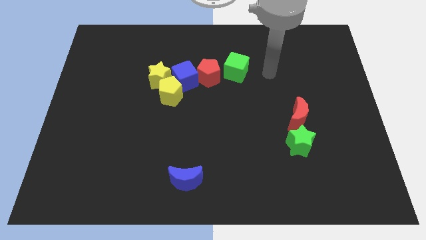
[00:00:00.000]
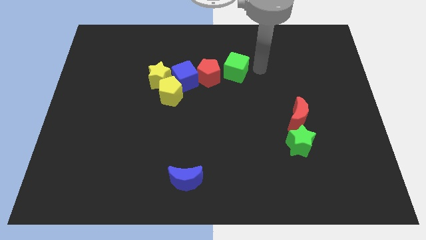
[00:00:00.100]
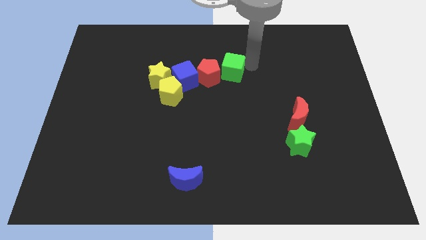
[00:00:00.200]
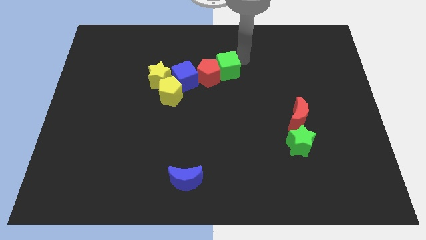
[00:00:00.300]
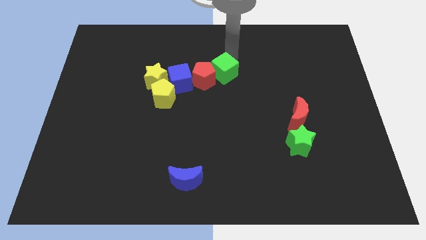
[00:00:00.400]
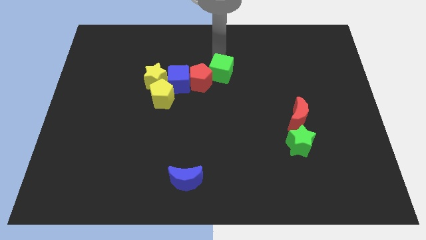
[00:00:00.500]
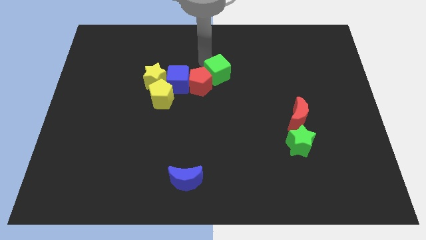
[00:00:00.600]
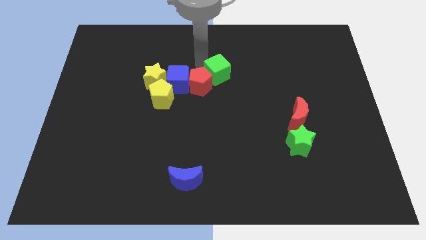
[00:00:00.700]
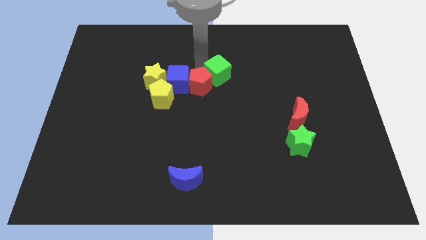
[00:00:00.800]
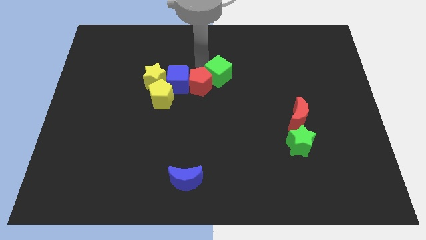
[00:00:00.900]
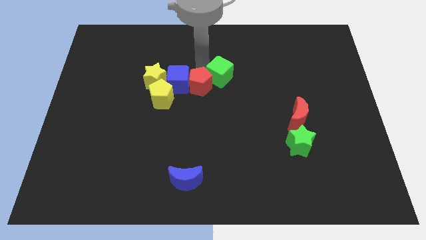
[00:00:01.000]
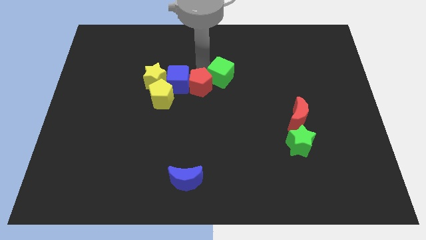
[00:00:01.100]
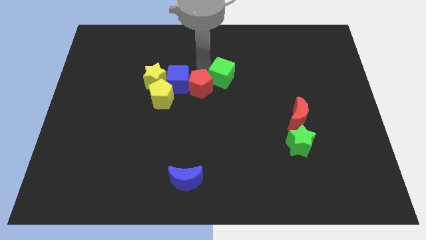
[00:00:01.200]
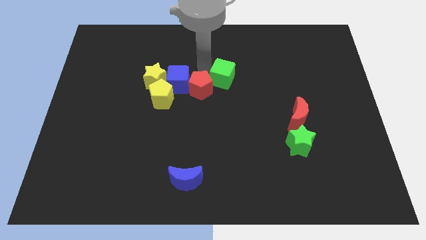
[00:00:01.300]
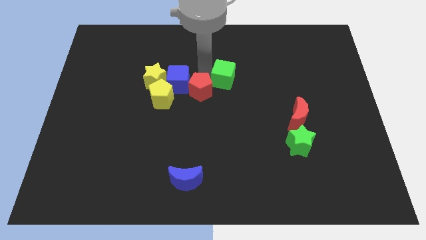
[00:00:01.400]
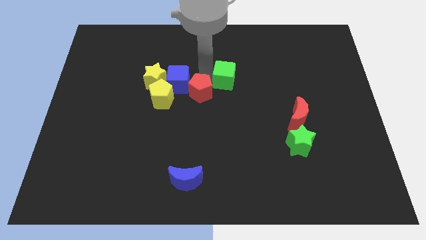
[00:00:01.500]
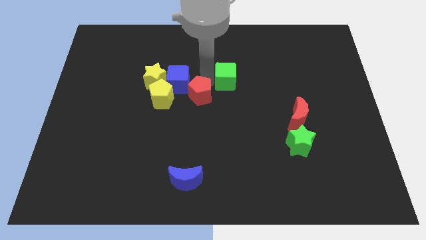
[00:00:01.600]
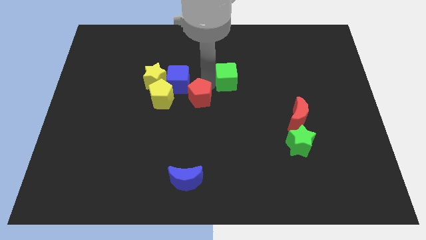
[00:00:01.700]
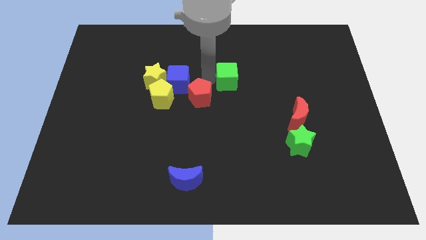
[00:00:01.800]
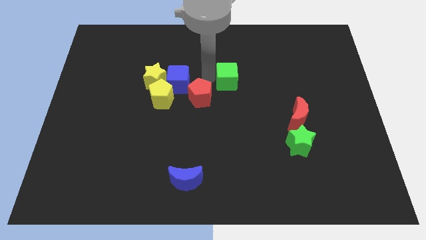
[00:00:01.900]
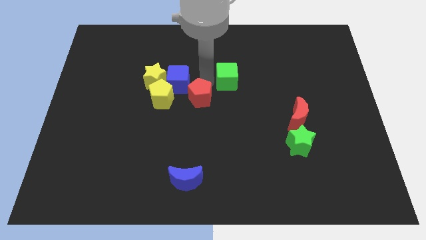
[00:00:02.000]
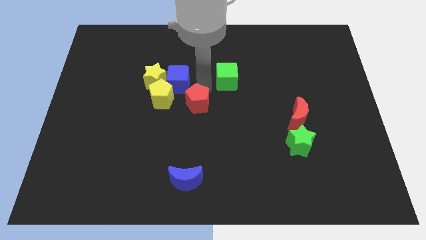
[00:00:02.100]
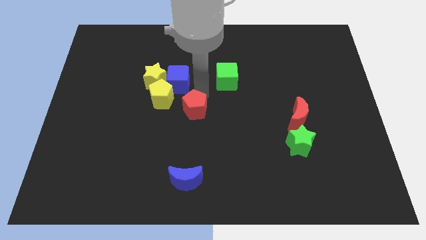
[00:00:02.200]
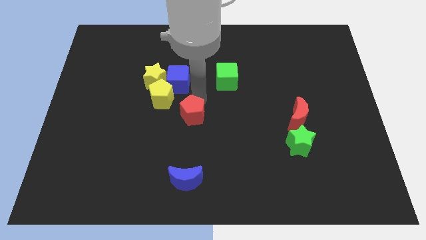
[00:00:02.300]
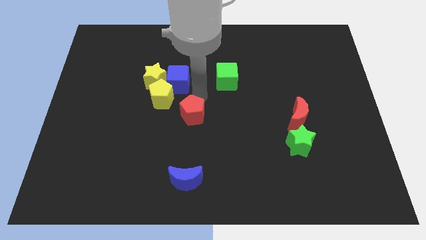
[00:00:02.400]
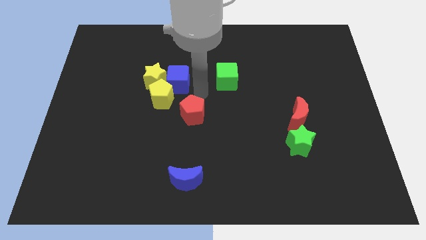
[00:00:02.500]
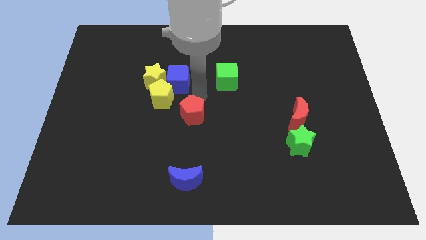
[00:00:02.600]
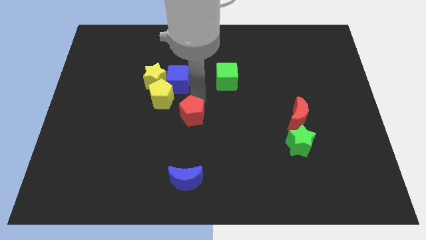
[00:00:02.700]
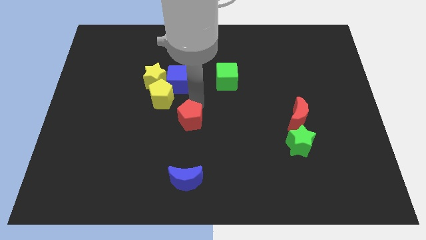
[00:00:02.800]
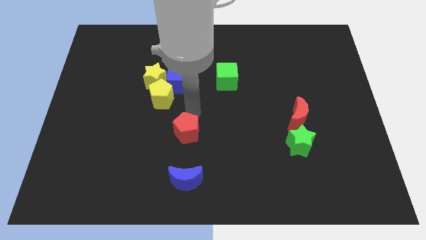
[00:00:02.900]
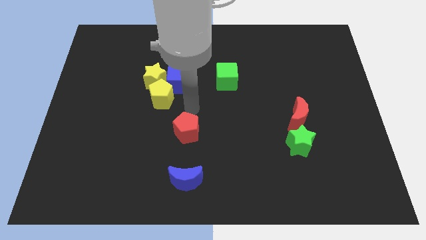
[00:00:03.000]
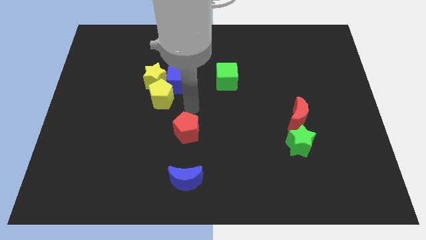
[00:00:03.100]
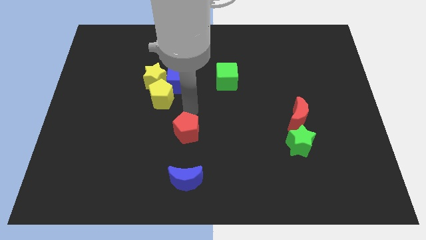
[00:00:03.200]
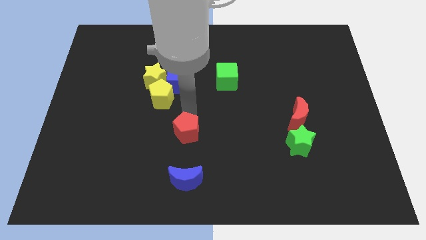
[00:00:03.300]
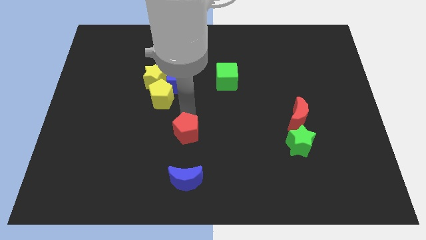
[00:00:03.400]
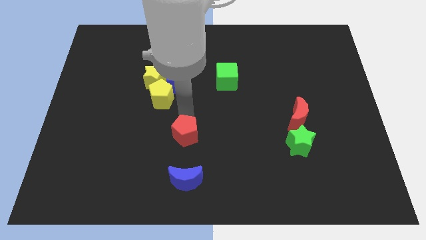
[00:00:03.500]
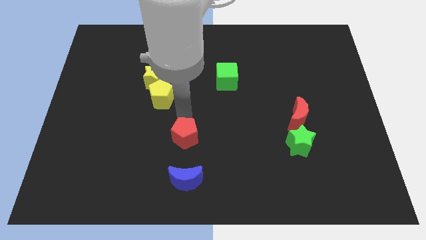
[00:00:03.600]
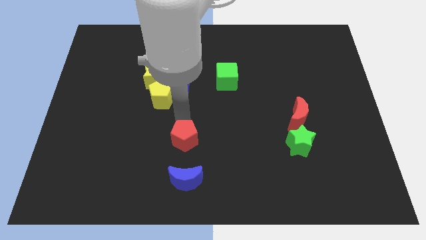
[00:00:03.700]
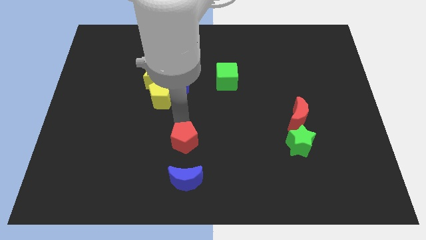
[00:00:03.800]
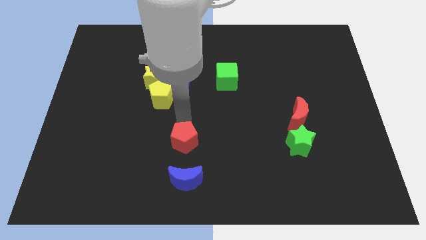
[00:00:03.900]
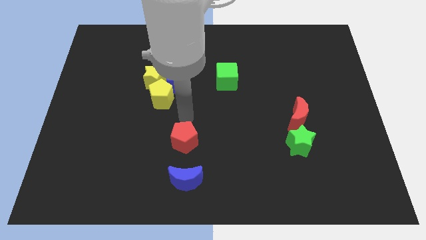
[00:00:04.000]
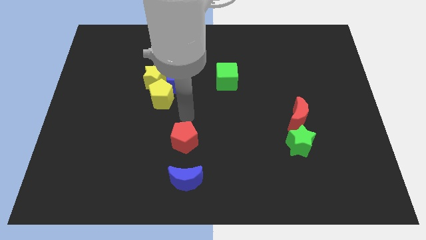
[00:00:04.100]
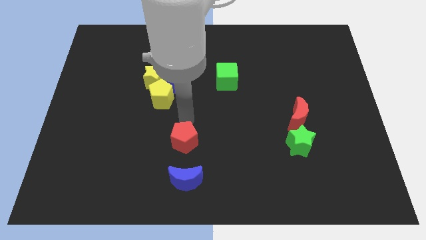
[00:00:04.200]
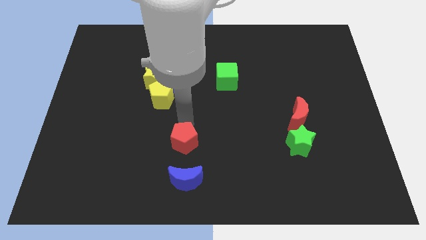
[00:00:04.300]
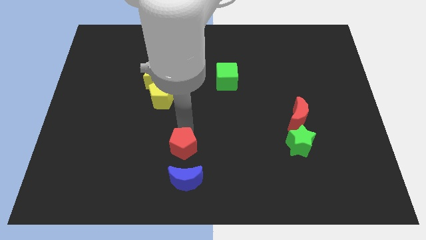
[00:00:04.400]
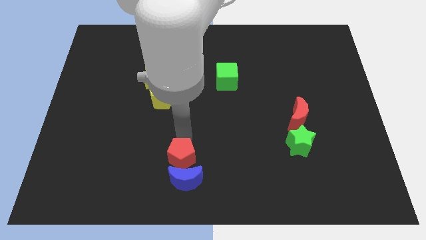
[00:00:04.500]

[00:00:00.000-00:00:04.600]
put the red pentagon towards the blue moon

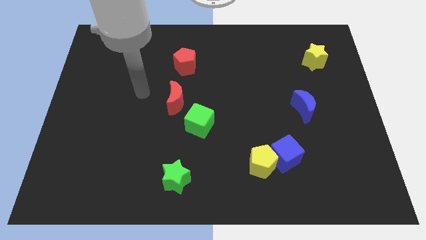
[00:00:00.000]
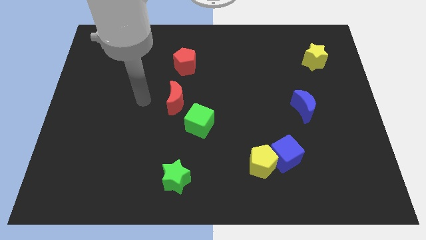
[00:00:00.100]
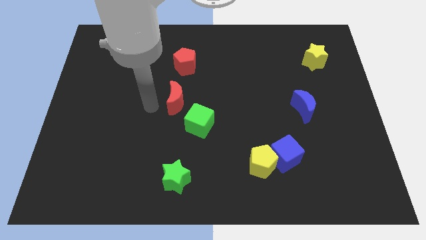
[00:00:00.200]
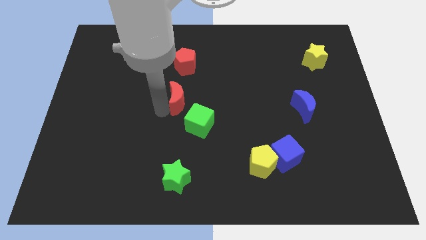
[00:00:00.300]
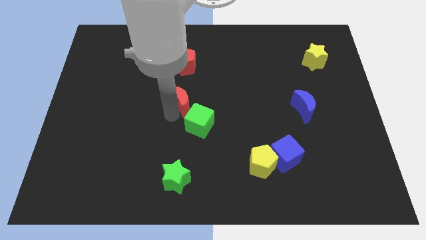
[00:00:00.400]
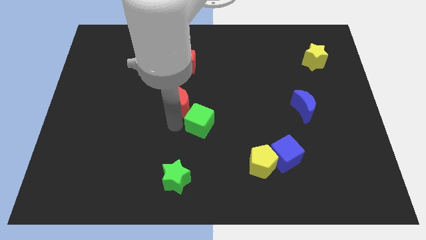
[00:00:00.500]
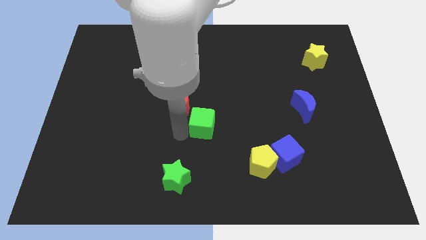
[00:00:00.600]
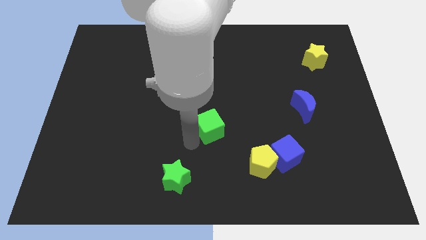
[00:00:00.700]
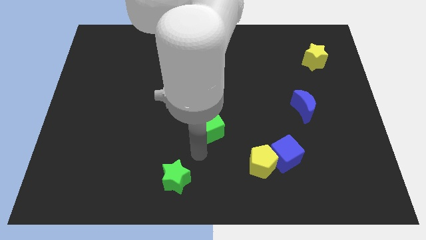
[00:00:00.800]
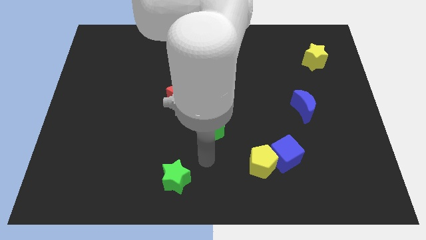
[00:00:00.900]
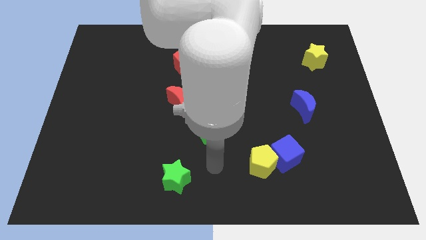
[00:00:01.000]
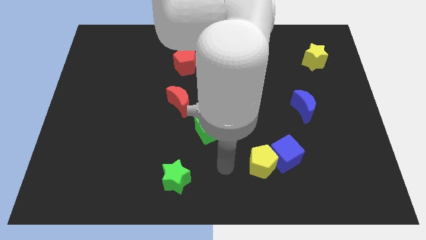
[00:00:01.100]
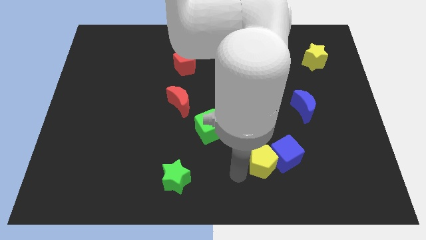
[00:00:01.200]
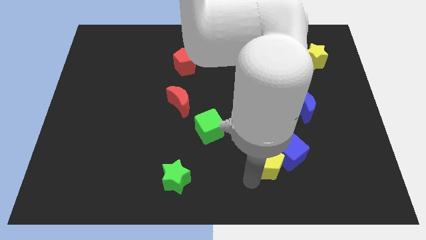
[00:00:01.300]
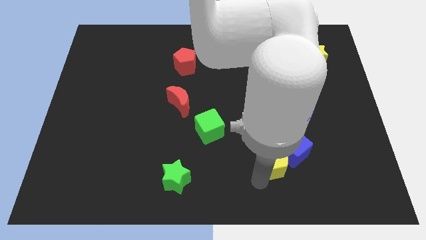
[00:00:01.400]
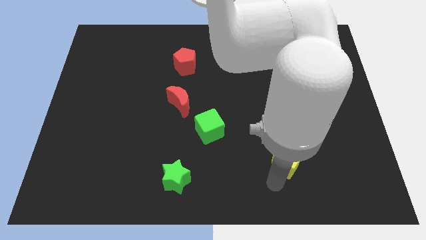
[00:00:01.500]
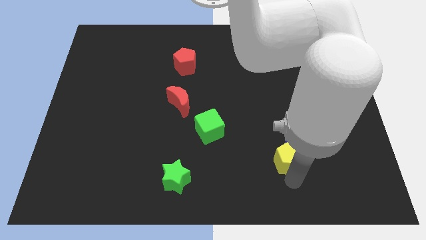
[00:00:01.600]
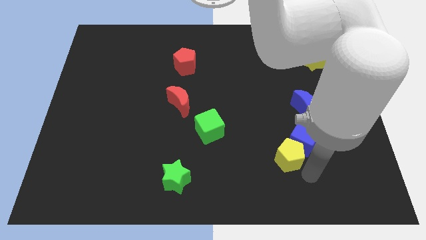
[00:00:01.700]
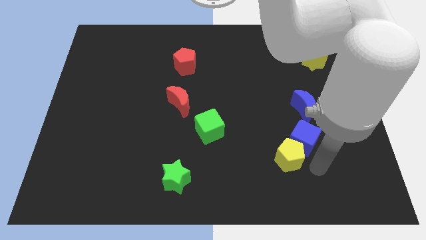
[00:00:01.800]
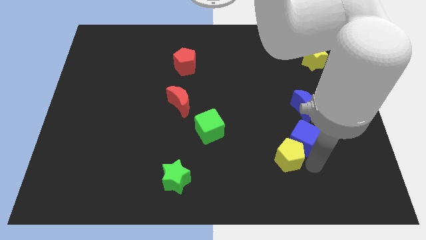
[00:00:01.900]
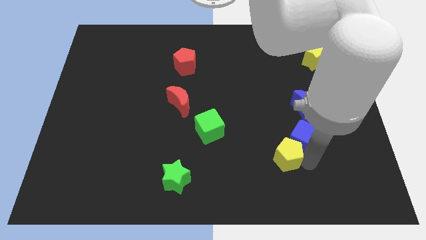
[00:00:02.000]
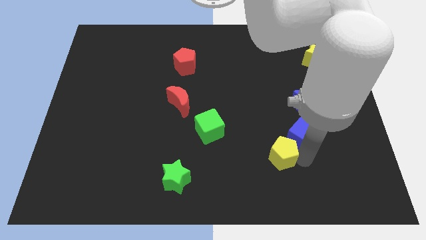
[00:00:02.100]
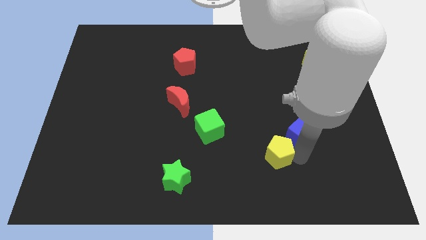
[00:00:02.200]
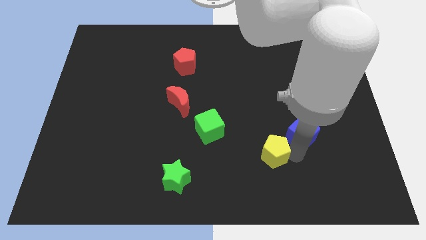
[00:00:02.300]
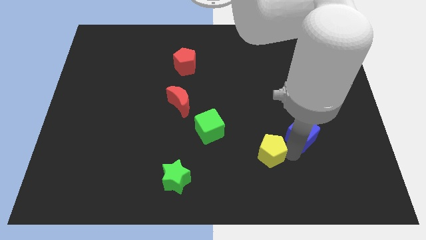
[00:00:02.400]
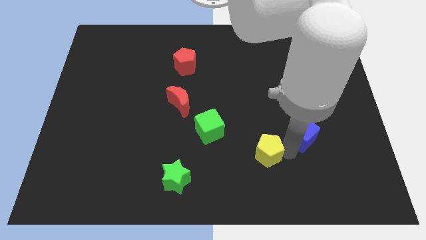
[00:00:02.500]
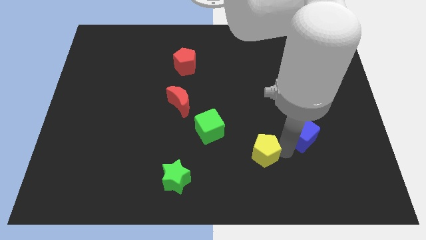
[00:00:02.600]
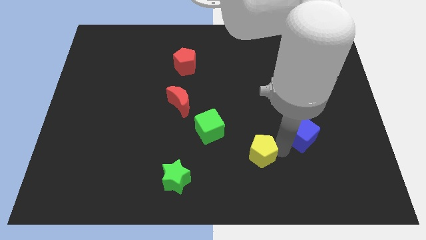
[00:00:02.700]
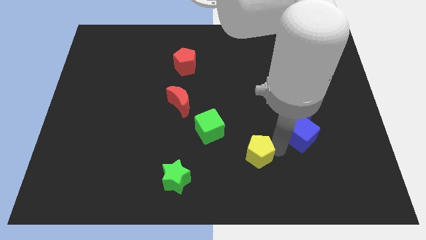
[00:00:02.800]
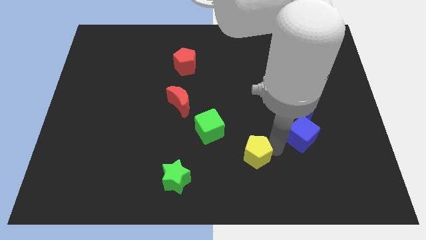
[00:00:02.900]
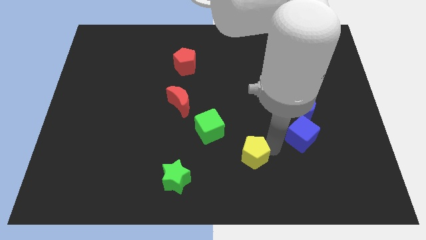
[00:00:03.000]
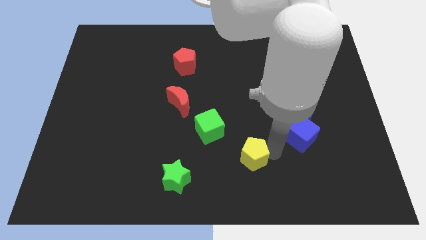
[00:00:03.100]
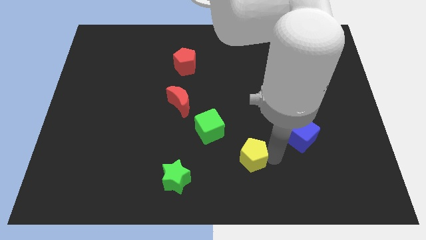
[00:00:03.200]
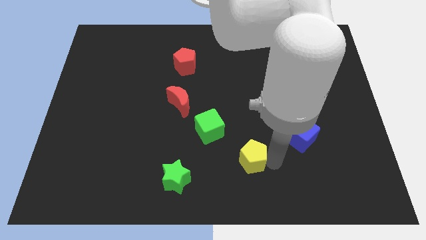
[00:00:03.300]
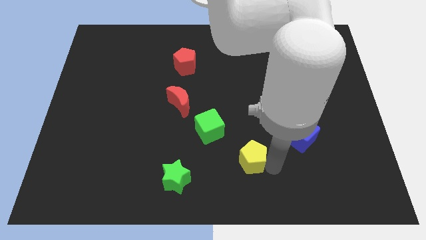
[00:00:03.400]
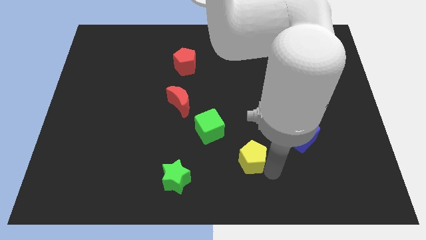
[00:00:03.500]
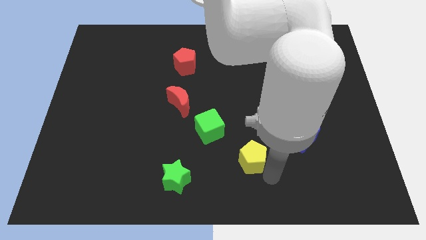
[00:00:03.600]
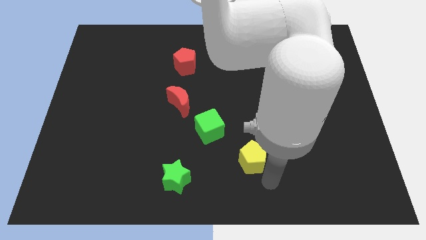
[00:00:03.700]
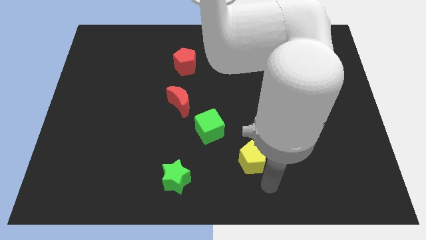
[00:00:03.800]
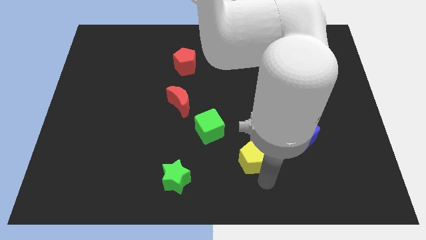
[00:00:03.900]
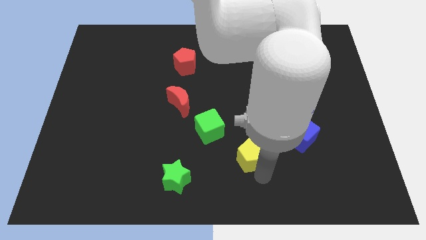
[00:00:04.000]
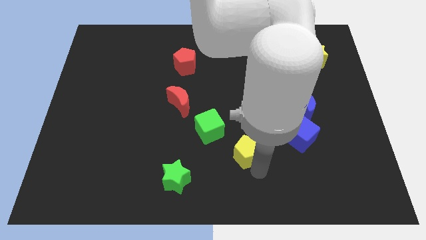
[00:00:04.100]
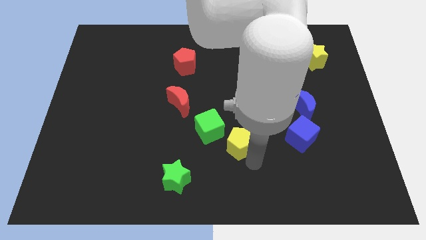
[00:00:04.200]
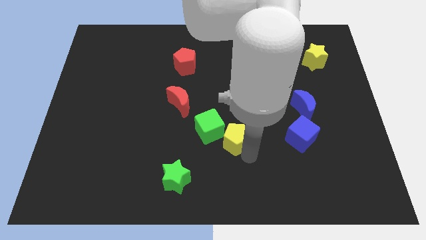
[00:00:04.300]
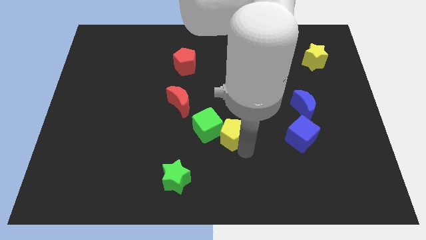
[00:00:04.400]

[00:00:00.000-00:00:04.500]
move the yellow pentagon next to the green cube
